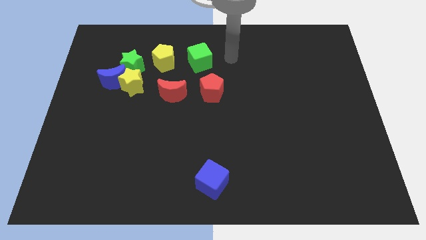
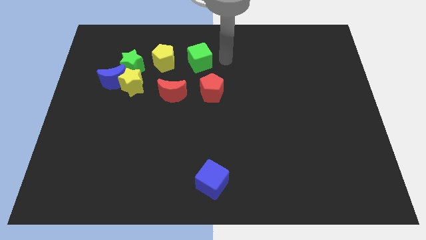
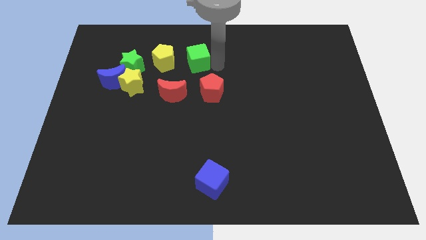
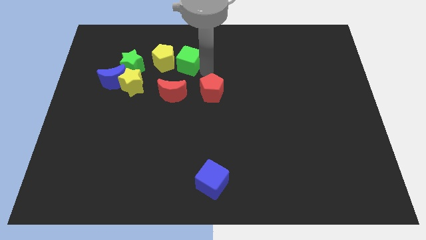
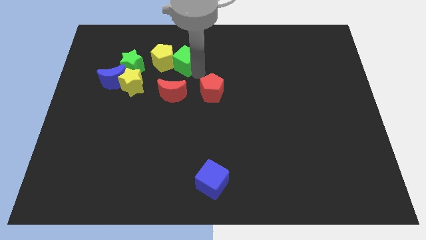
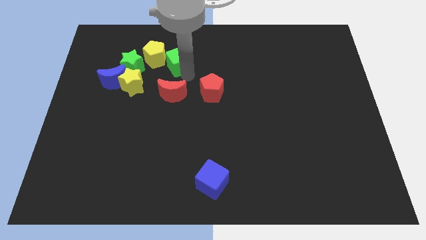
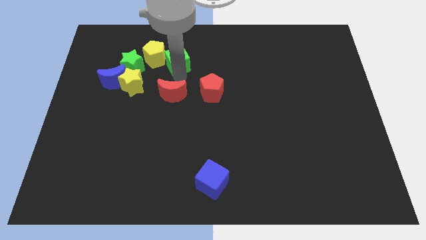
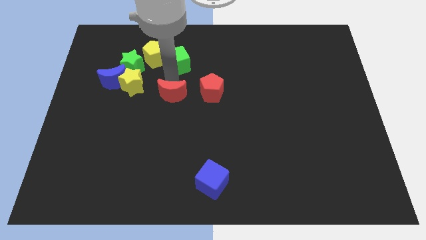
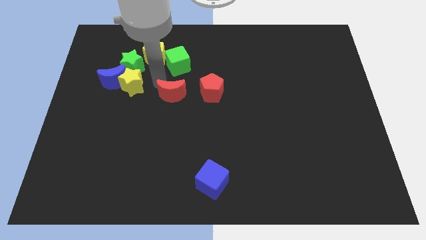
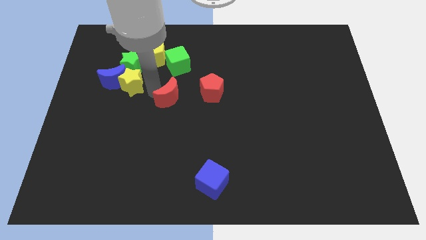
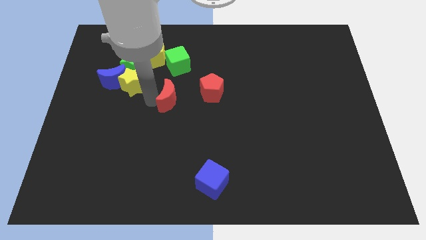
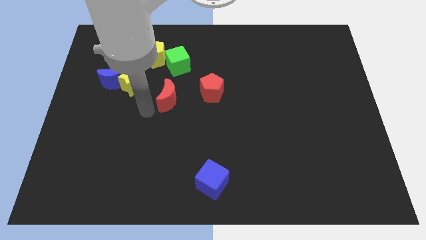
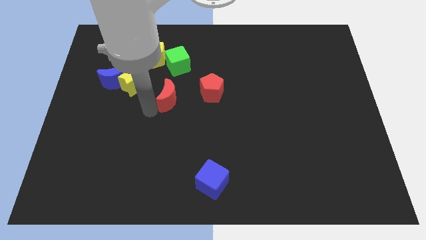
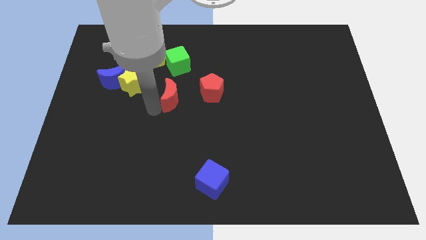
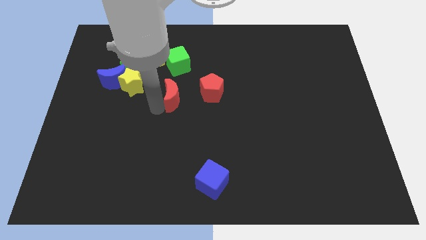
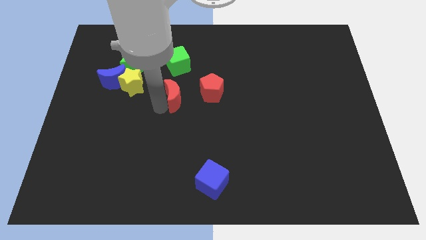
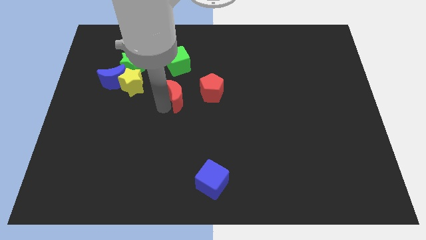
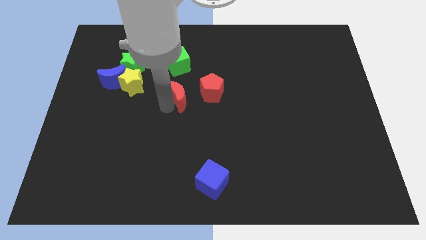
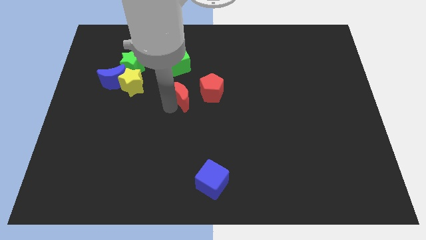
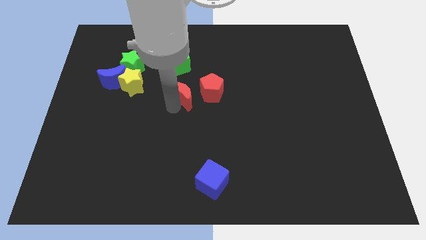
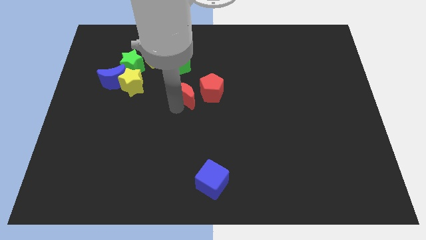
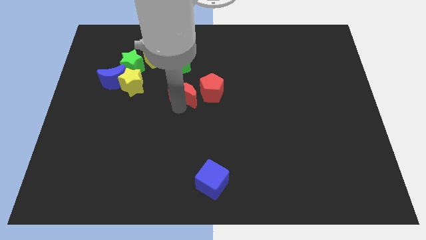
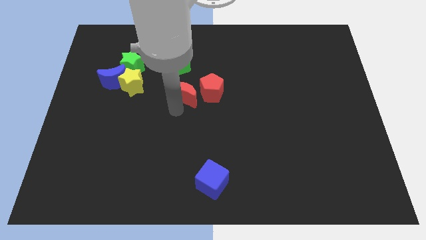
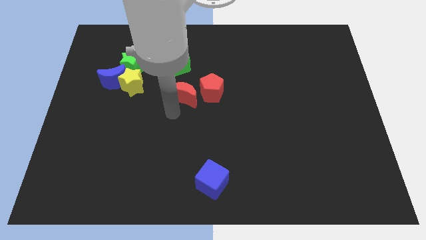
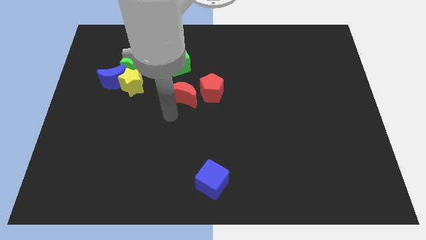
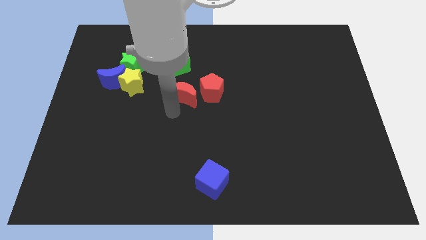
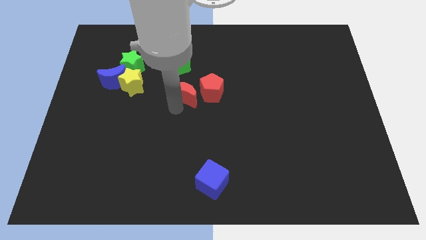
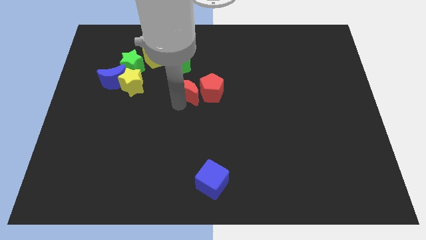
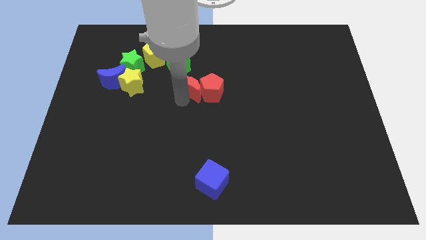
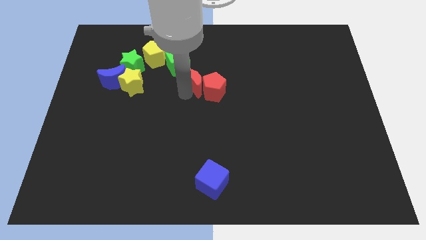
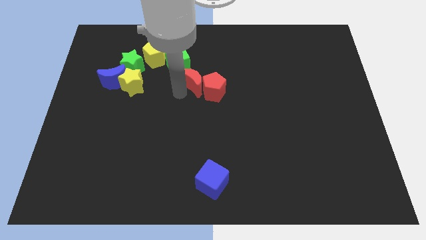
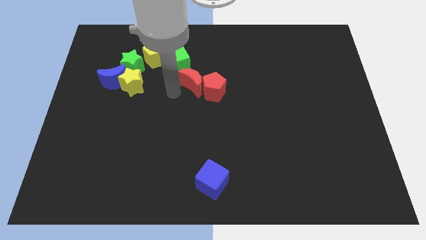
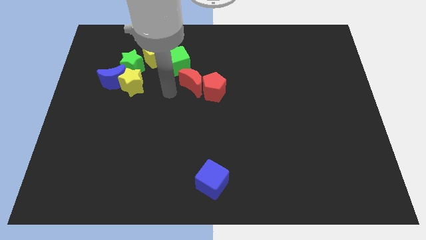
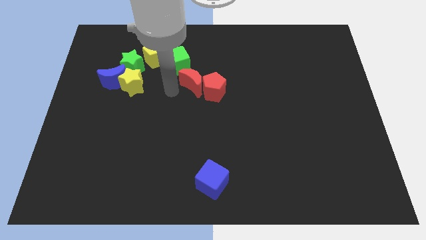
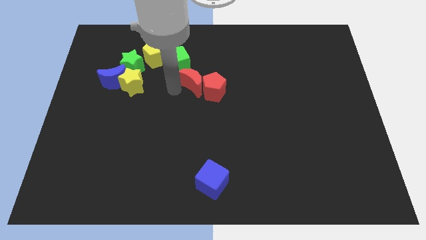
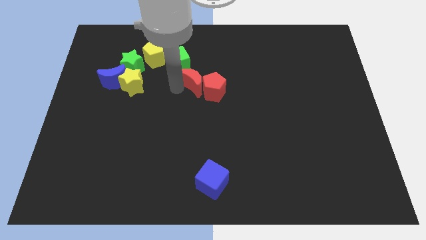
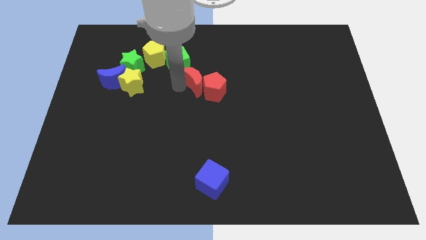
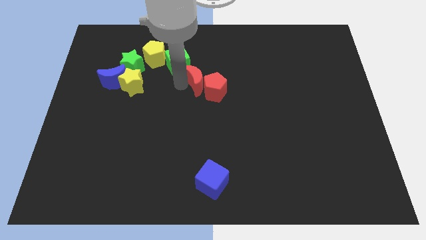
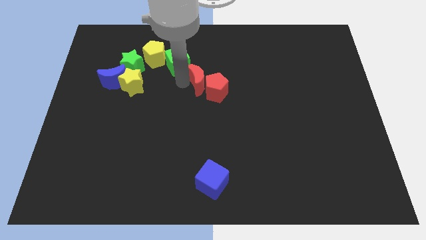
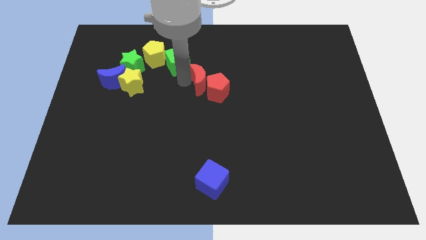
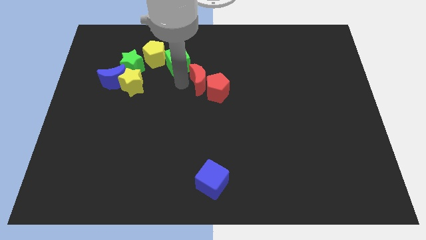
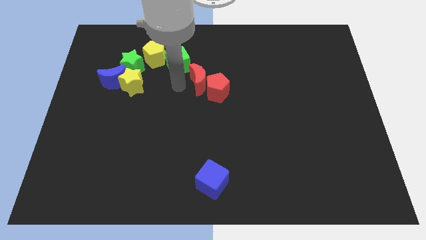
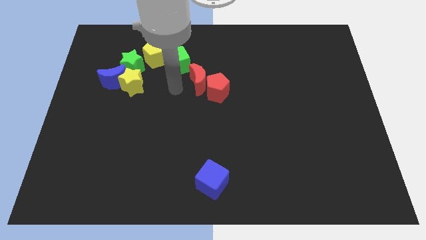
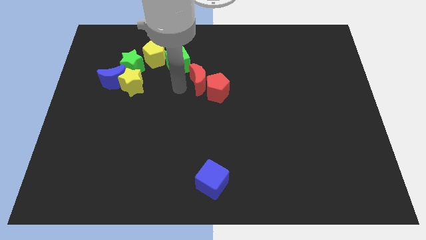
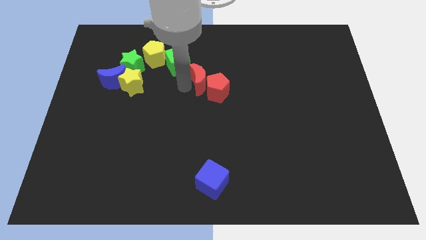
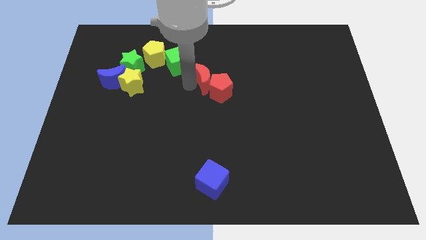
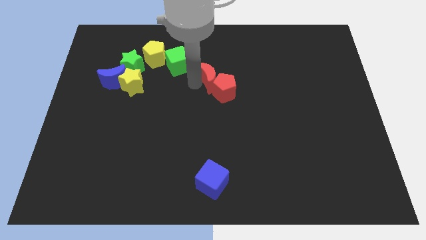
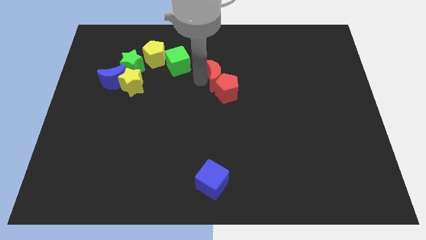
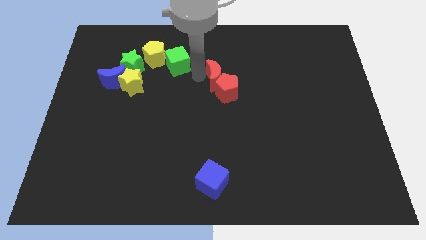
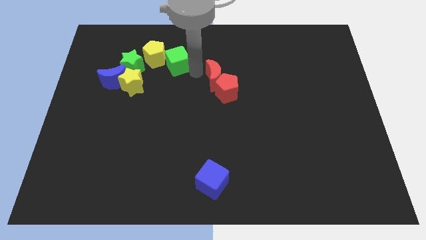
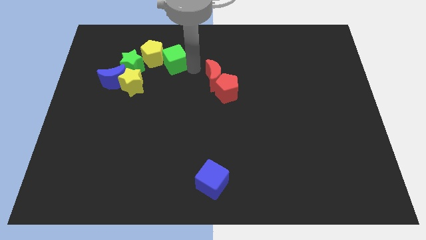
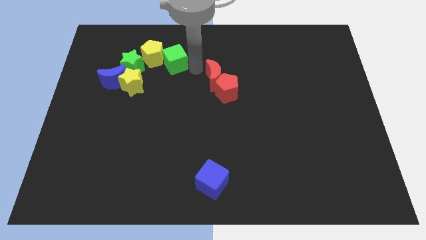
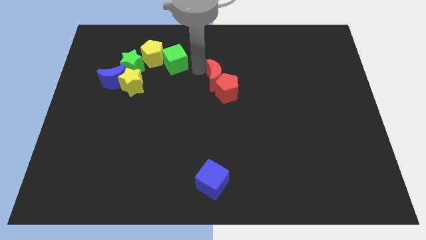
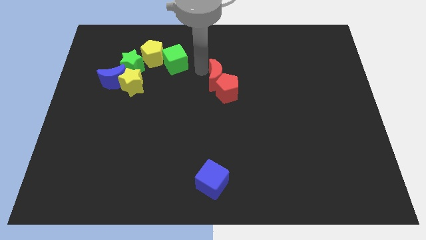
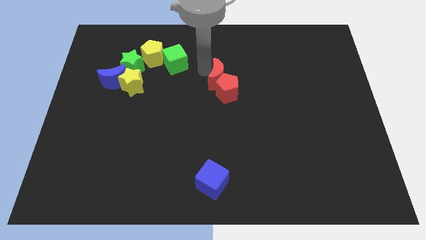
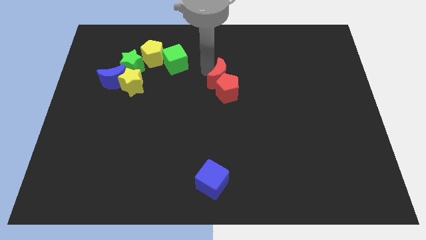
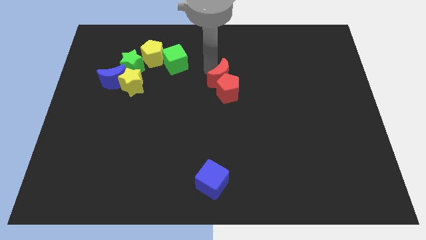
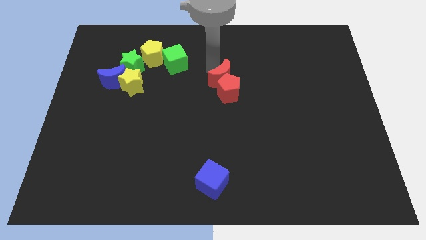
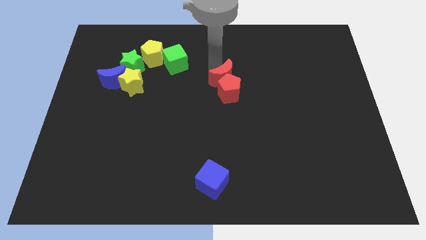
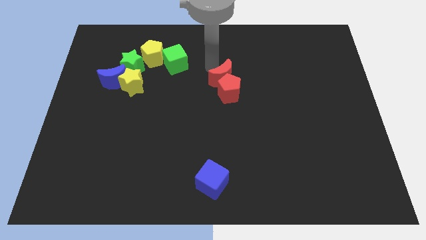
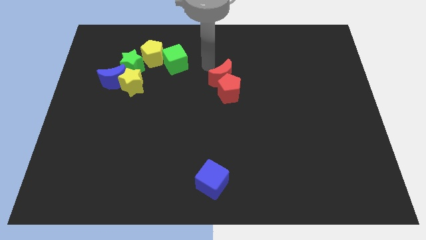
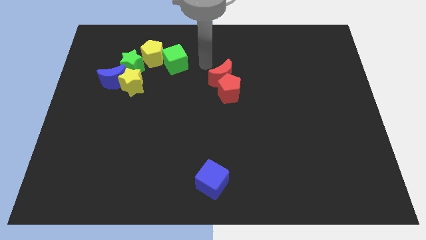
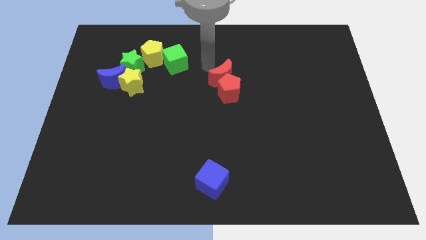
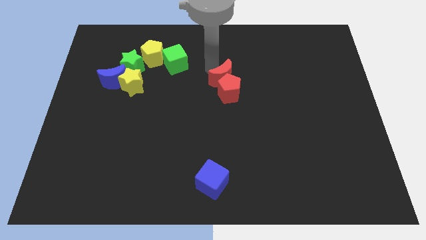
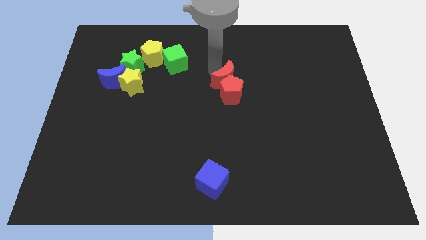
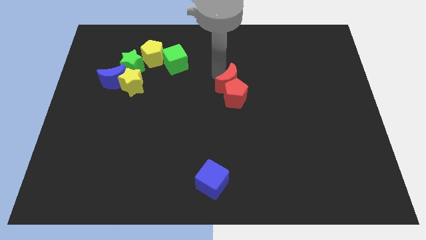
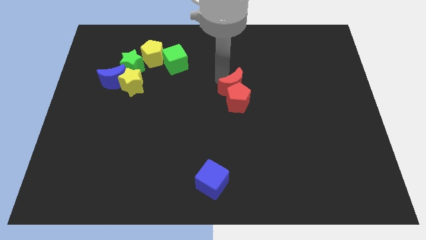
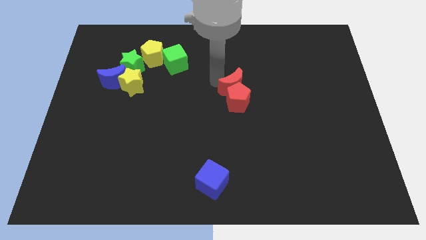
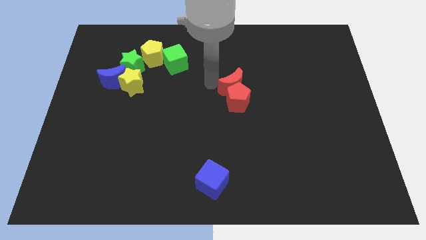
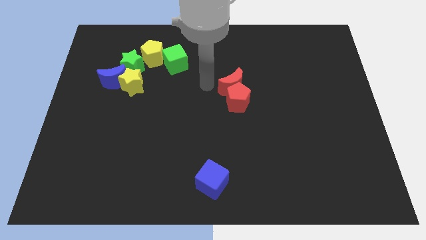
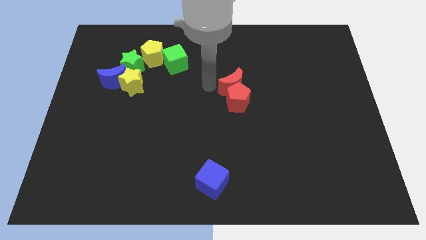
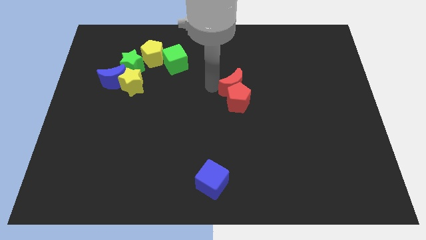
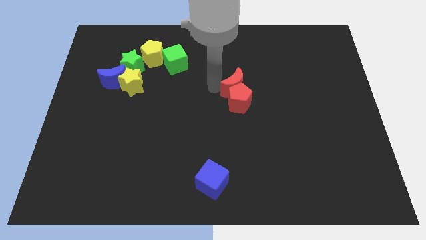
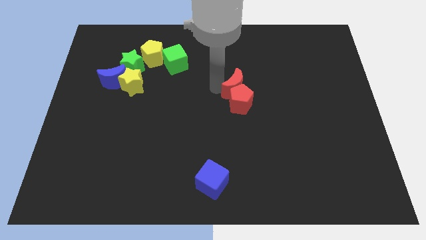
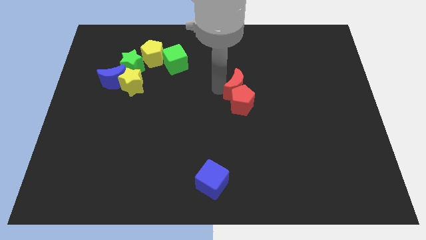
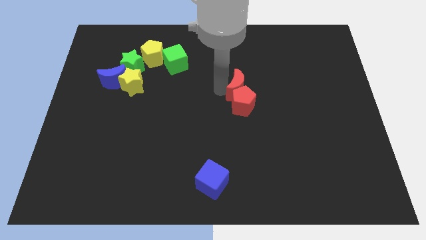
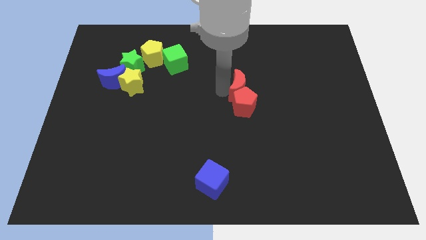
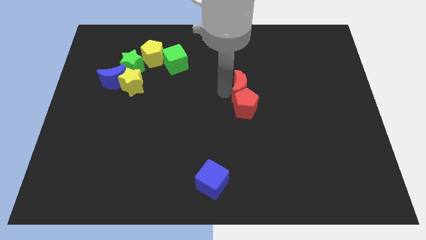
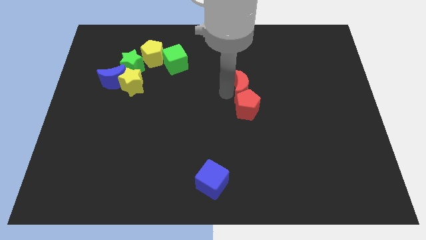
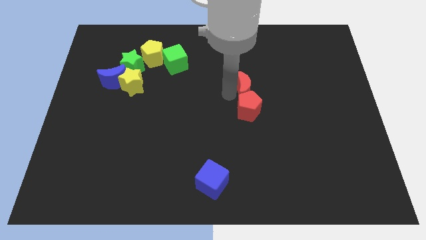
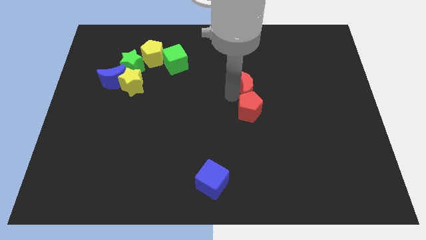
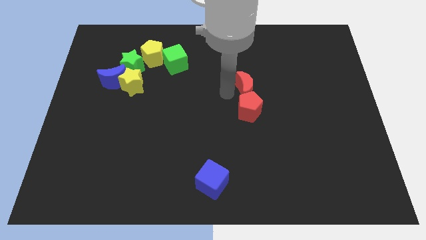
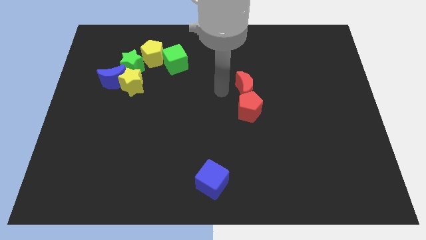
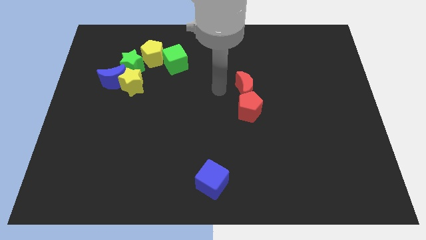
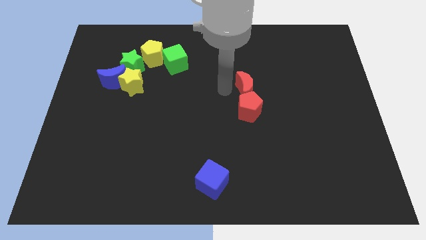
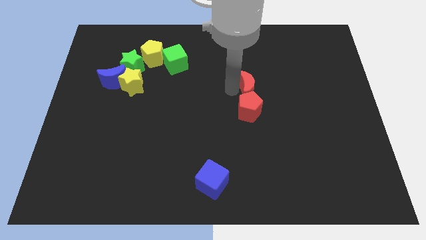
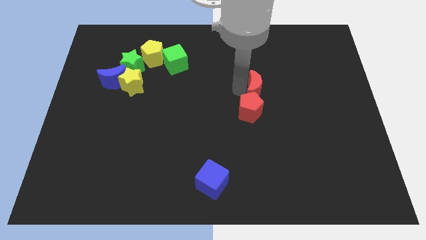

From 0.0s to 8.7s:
slide the red moon to the right
